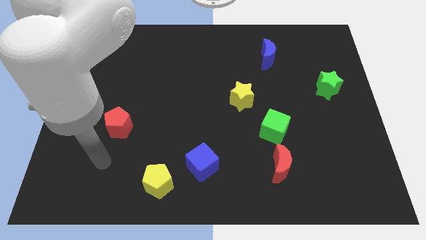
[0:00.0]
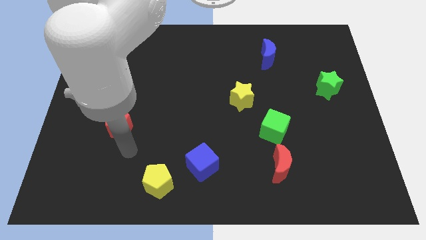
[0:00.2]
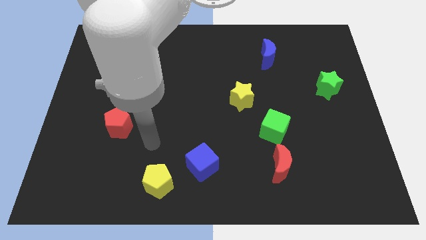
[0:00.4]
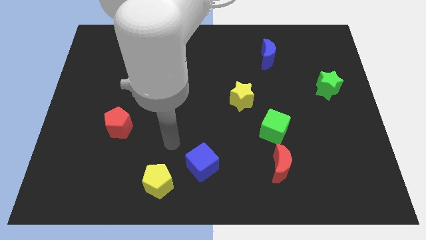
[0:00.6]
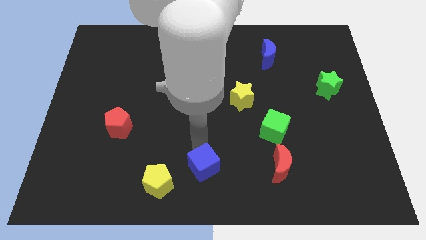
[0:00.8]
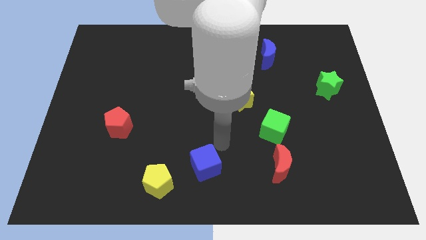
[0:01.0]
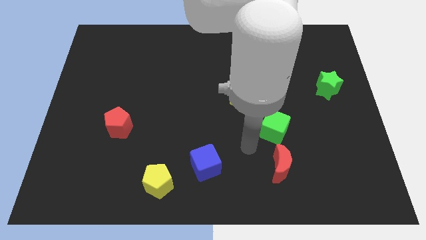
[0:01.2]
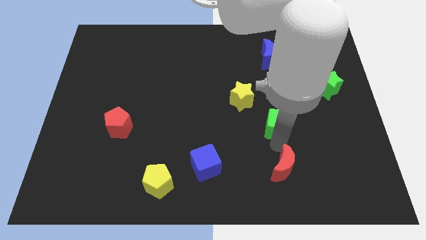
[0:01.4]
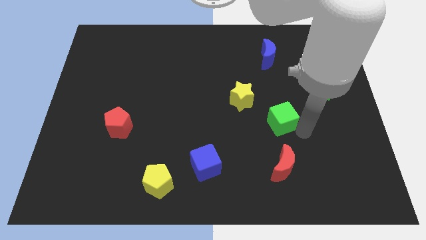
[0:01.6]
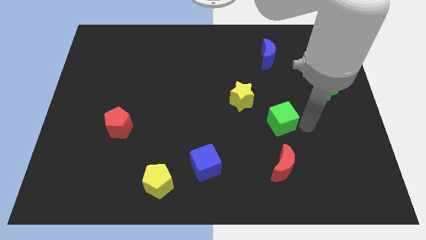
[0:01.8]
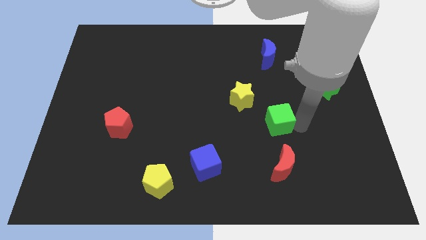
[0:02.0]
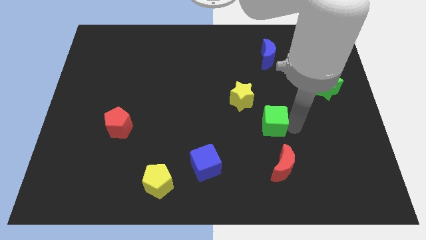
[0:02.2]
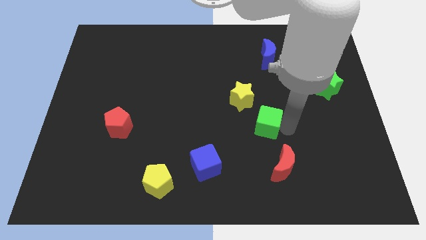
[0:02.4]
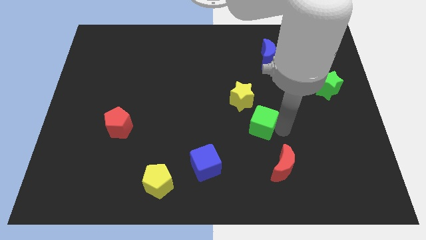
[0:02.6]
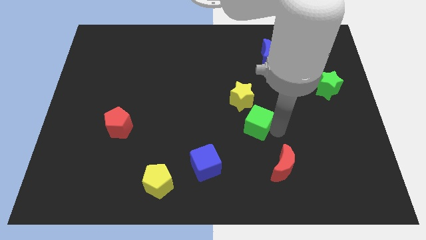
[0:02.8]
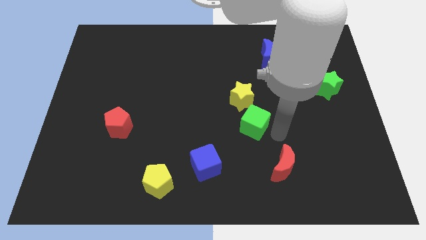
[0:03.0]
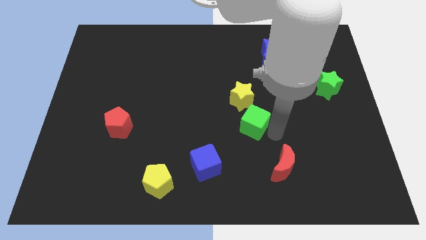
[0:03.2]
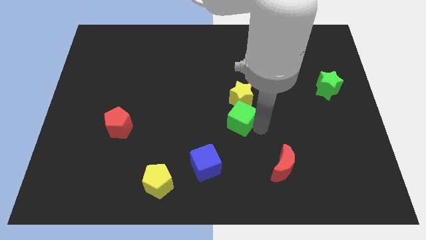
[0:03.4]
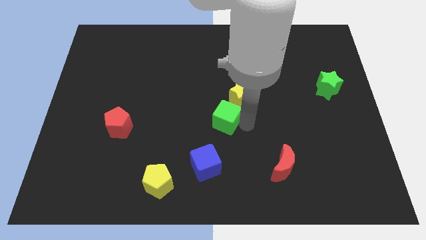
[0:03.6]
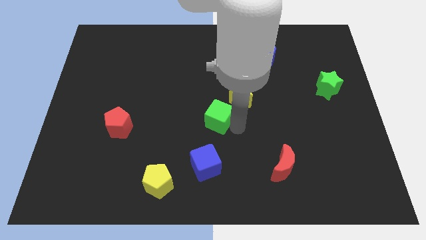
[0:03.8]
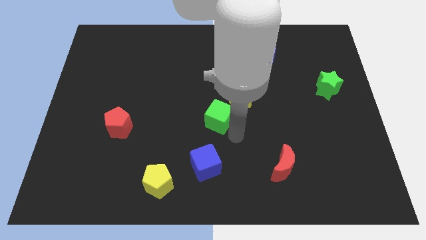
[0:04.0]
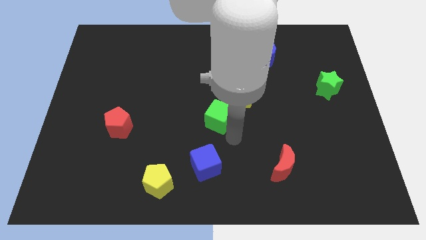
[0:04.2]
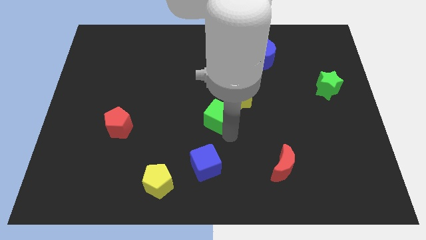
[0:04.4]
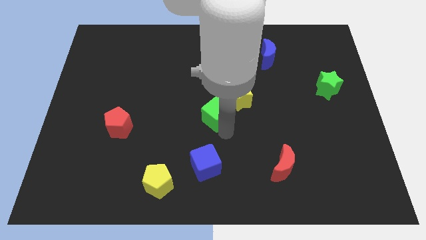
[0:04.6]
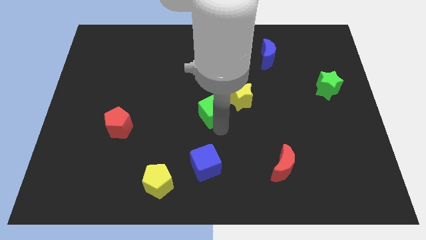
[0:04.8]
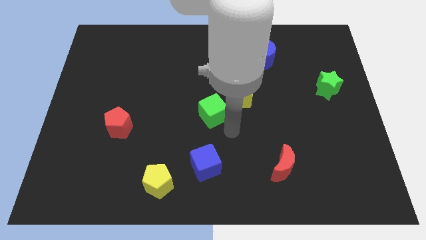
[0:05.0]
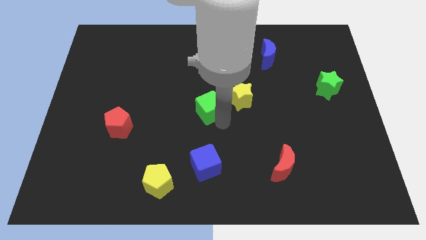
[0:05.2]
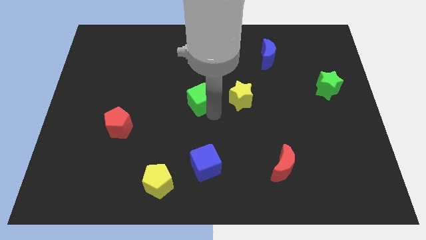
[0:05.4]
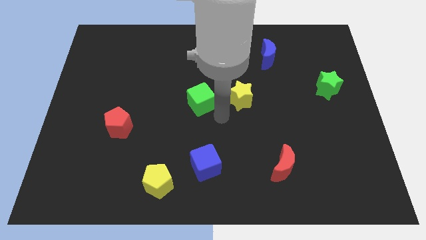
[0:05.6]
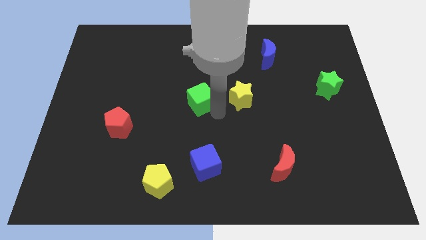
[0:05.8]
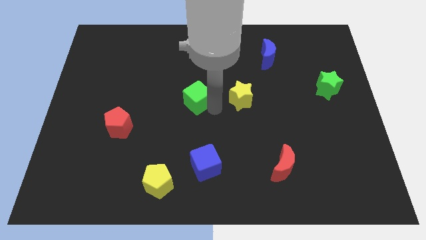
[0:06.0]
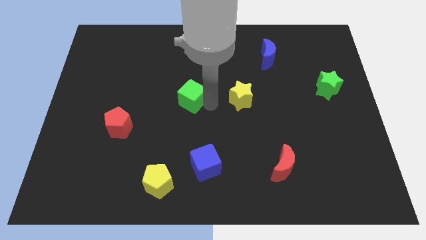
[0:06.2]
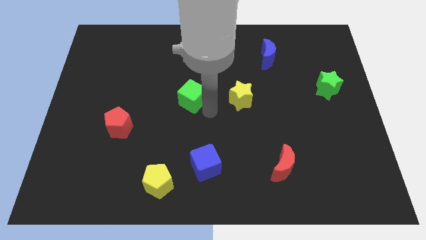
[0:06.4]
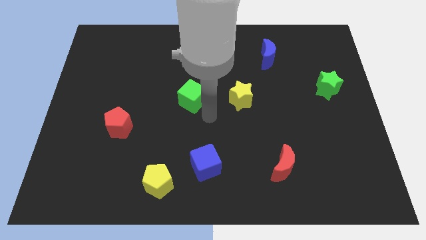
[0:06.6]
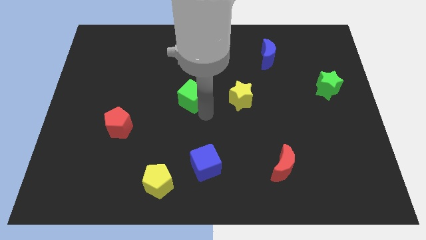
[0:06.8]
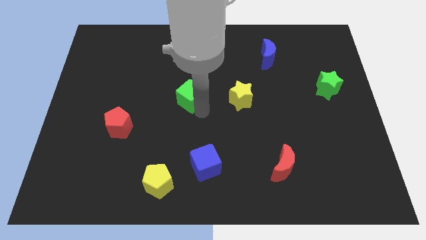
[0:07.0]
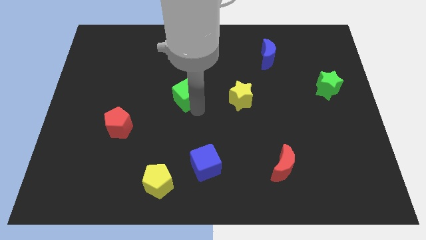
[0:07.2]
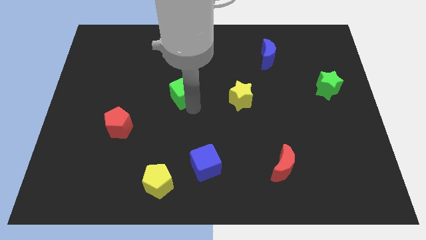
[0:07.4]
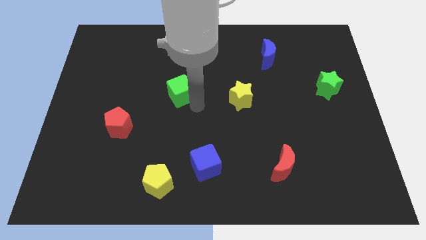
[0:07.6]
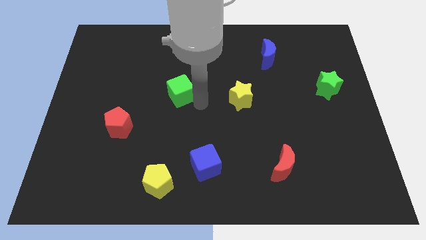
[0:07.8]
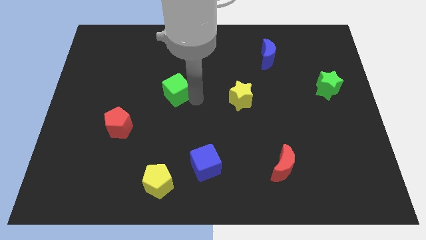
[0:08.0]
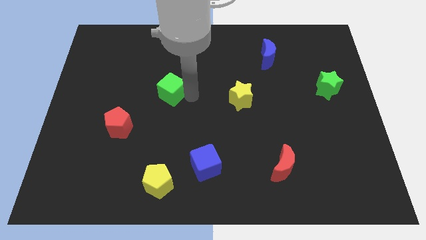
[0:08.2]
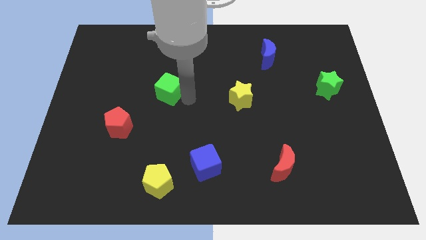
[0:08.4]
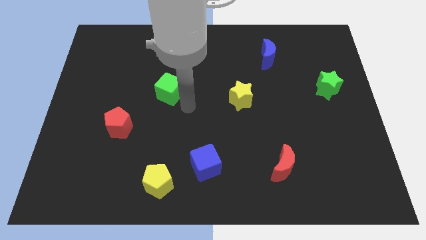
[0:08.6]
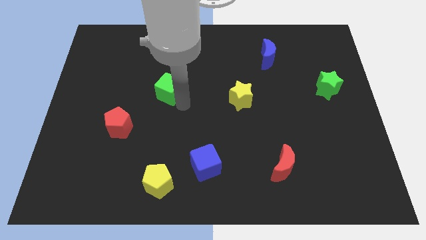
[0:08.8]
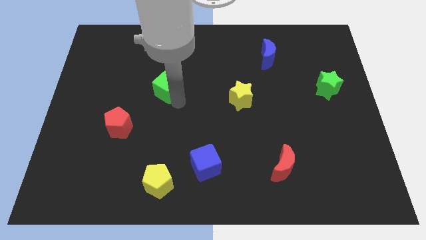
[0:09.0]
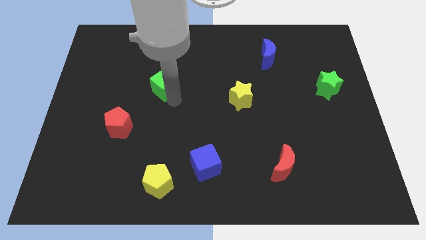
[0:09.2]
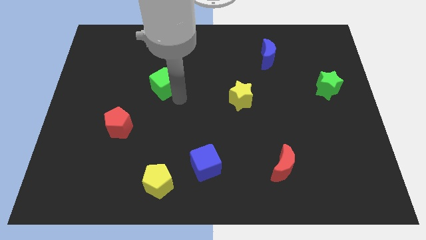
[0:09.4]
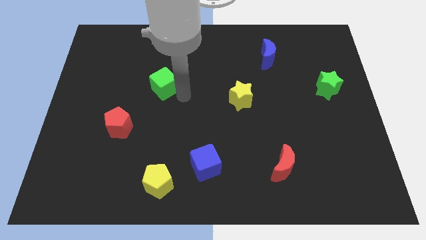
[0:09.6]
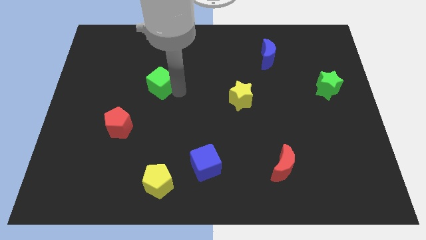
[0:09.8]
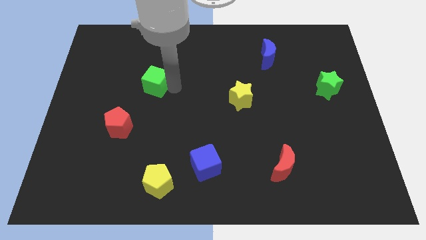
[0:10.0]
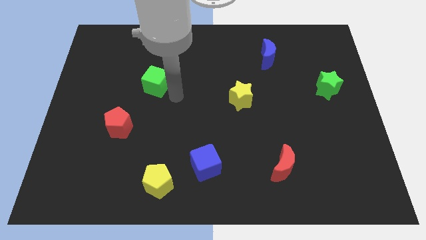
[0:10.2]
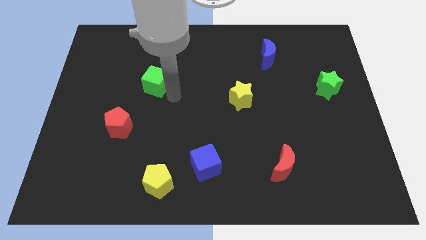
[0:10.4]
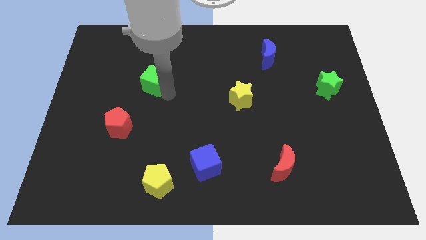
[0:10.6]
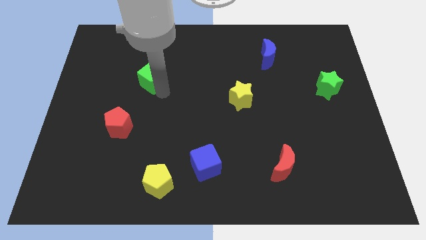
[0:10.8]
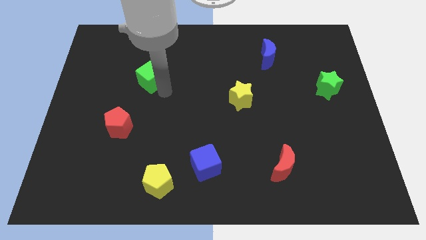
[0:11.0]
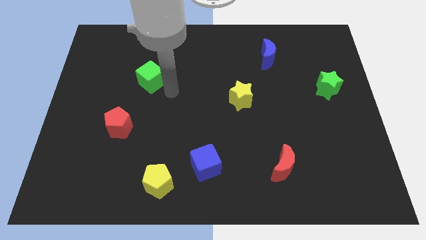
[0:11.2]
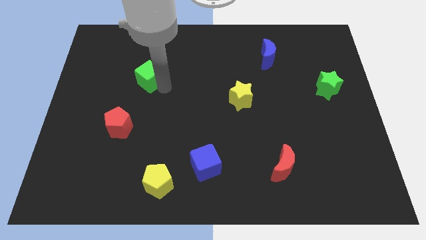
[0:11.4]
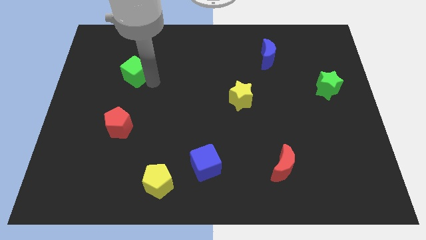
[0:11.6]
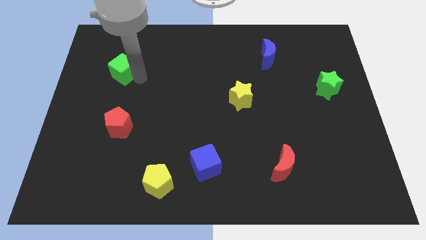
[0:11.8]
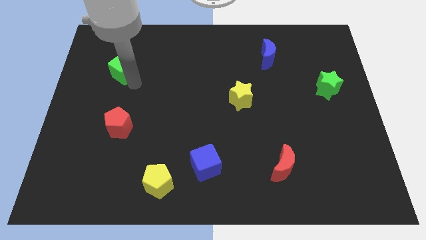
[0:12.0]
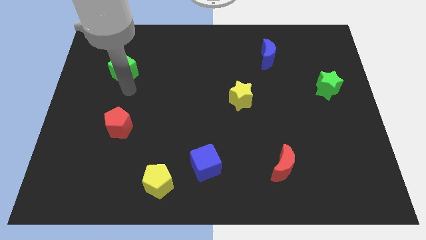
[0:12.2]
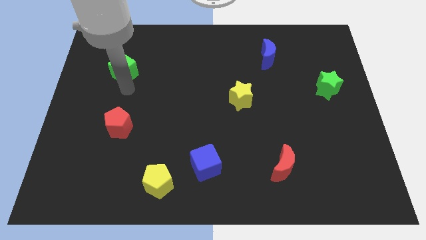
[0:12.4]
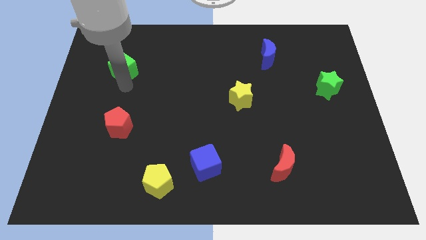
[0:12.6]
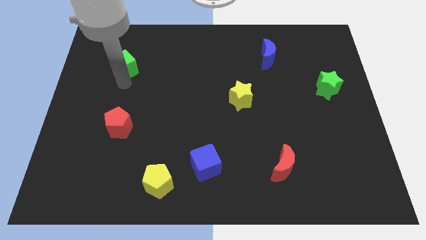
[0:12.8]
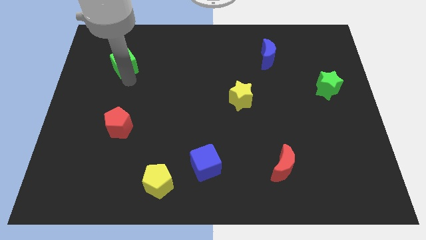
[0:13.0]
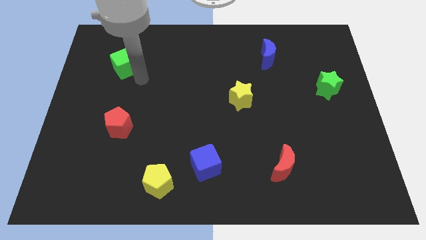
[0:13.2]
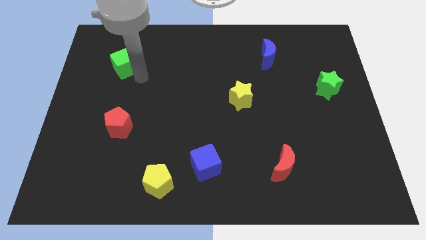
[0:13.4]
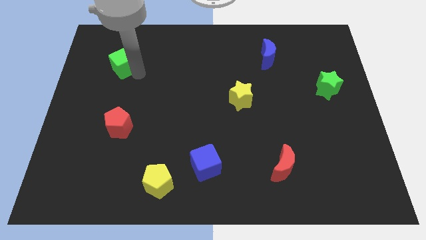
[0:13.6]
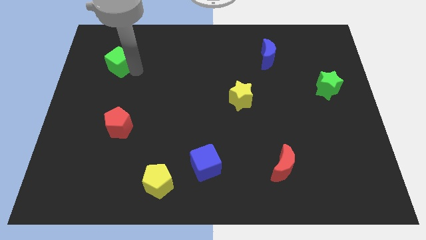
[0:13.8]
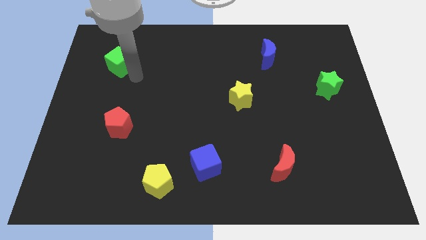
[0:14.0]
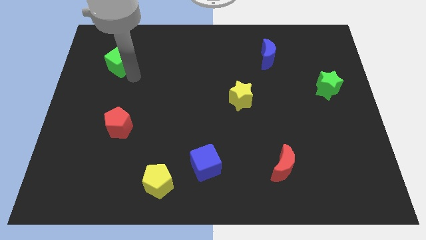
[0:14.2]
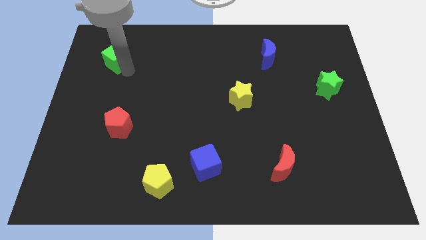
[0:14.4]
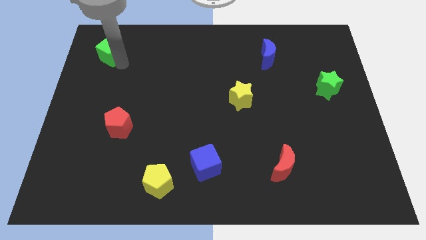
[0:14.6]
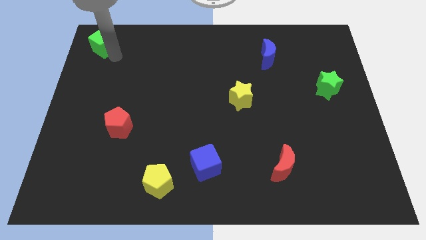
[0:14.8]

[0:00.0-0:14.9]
push the green cube to the upper left corner
